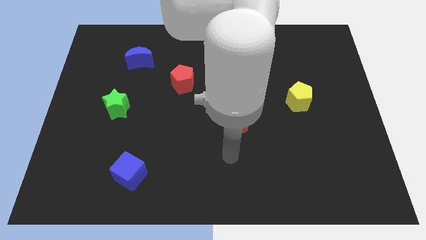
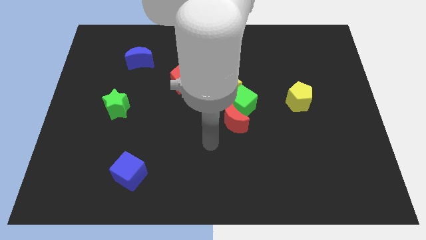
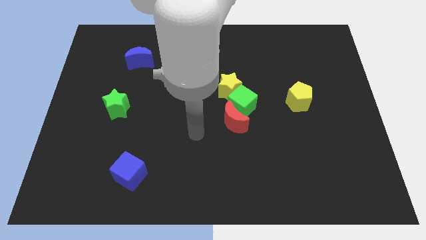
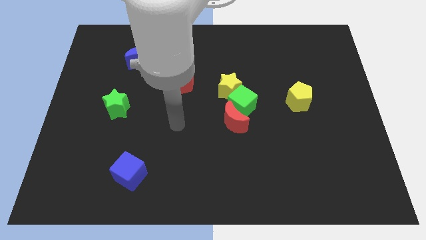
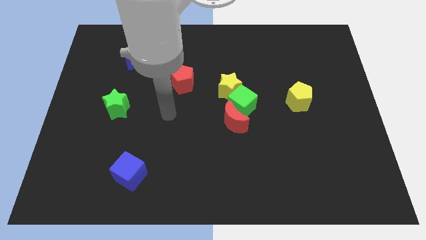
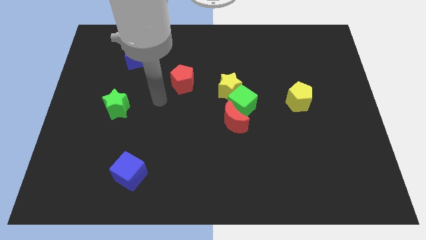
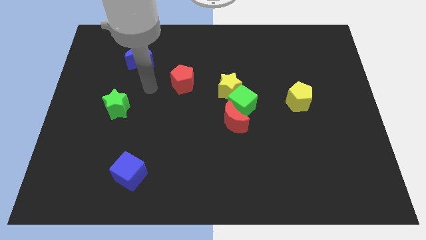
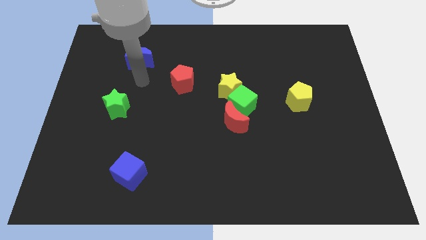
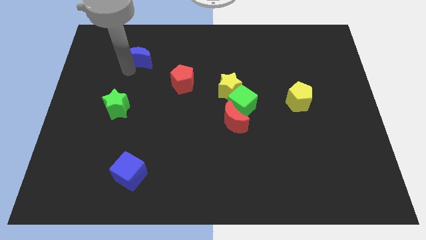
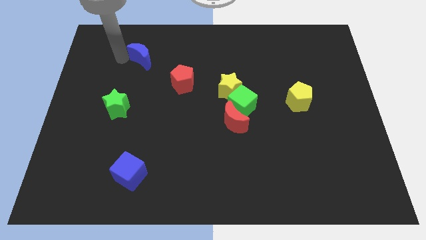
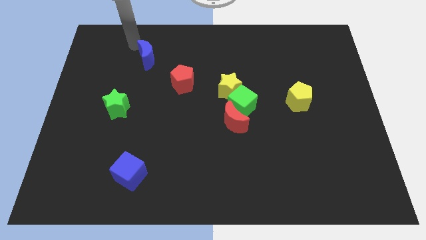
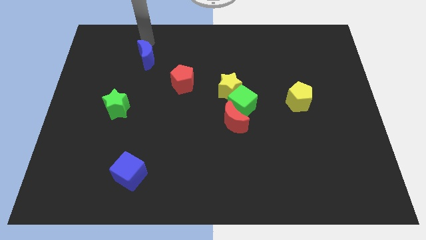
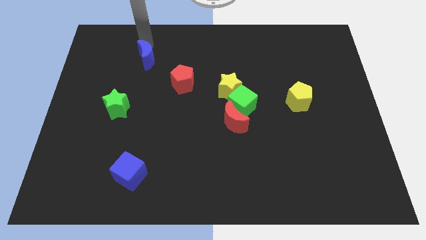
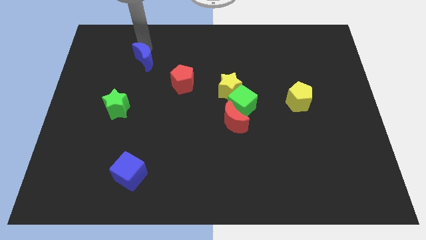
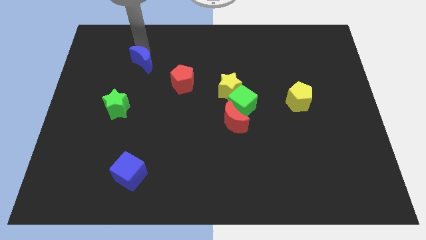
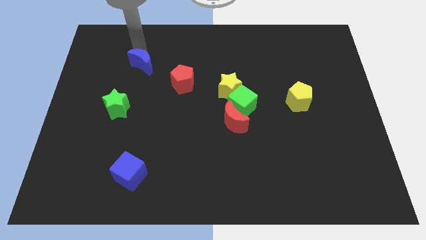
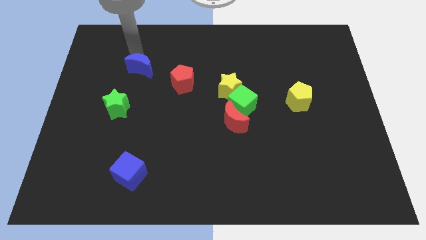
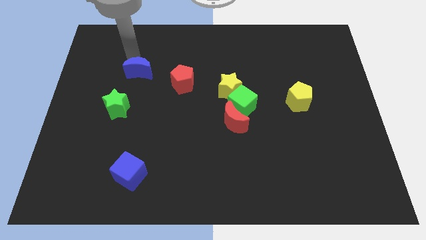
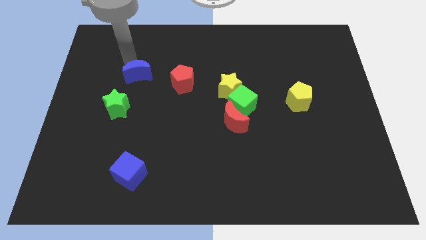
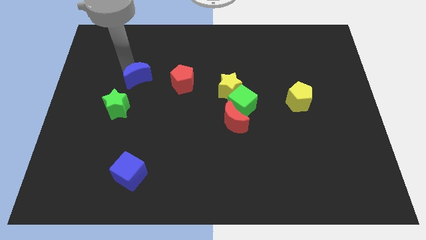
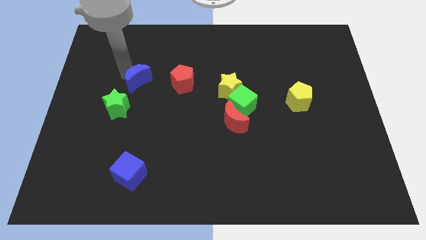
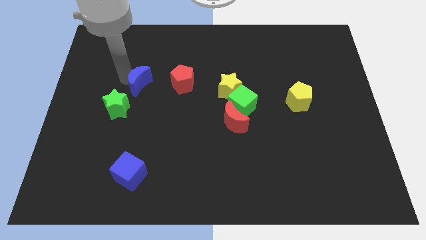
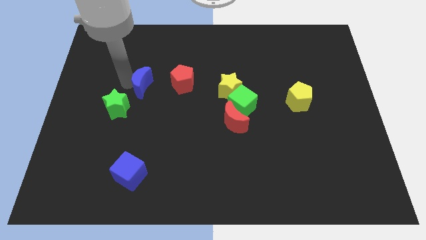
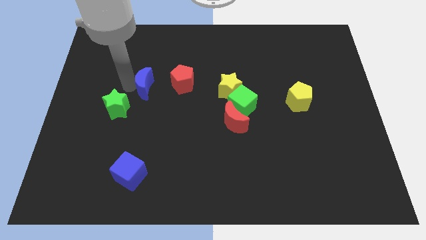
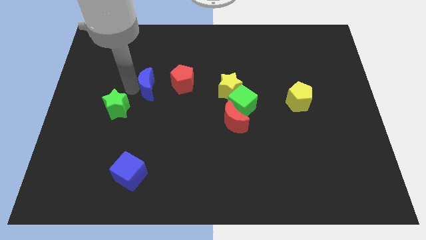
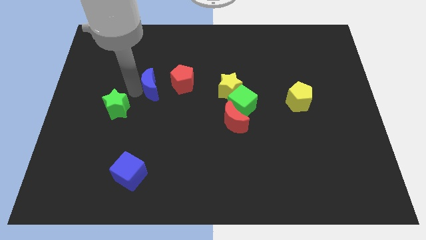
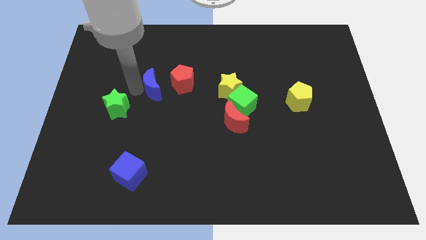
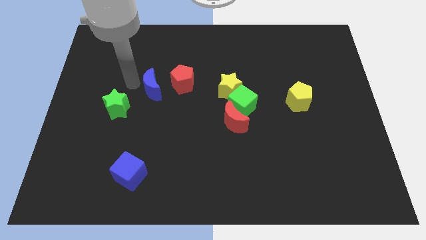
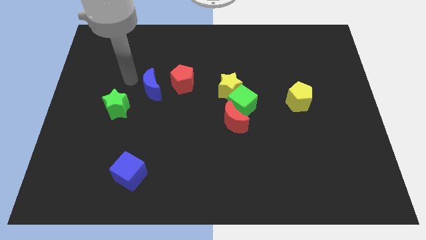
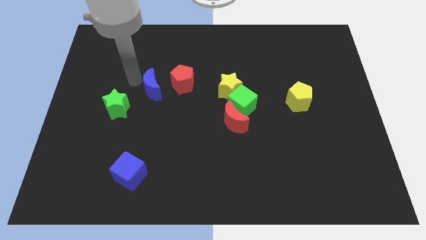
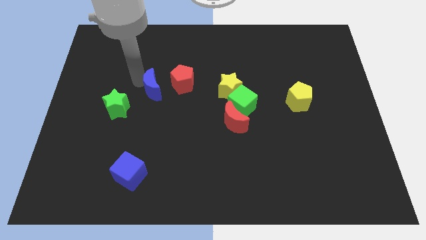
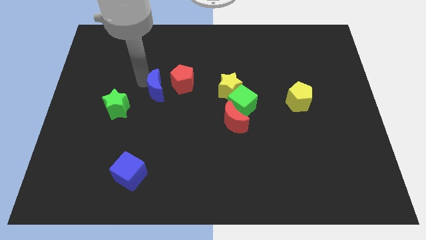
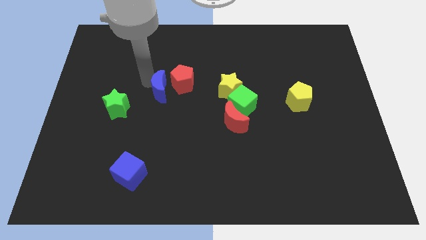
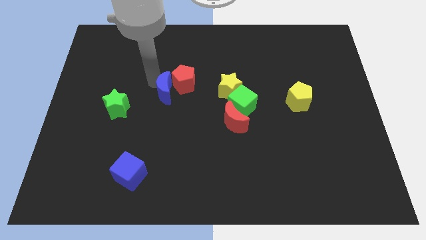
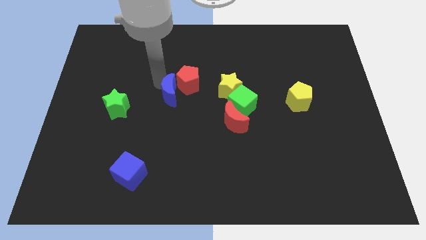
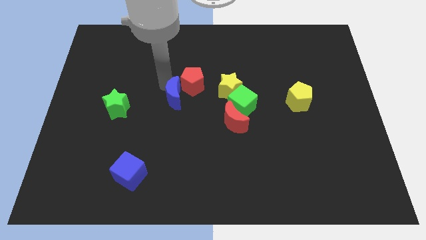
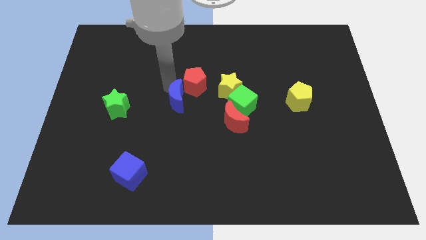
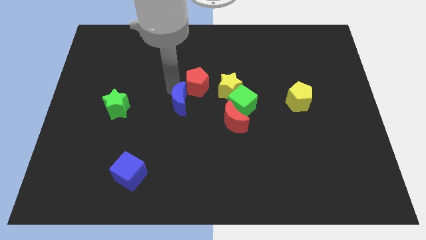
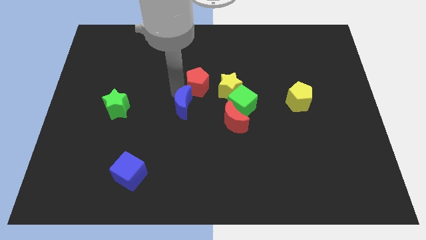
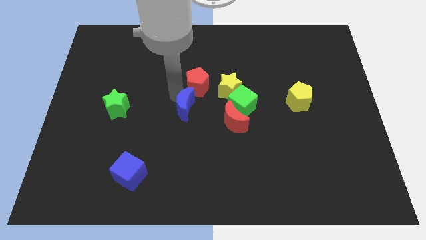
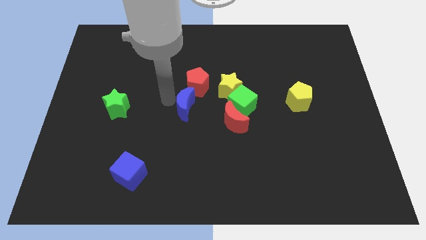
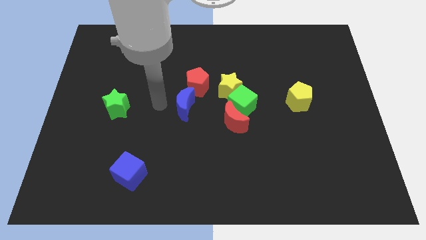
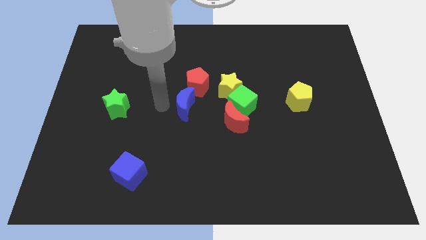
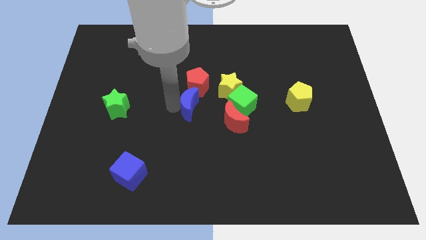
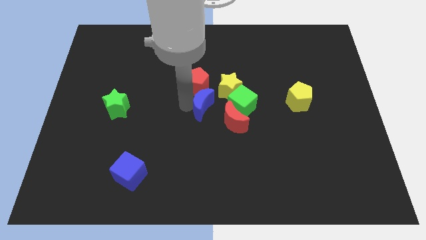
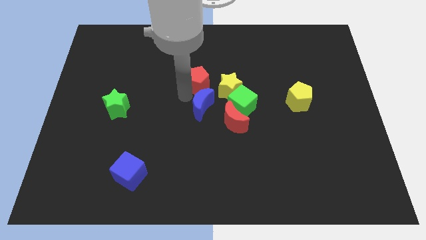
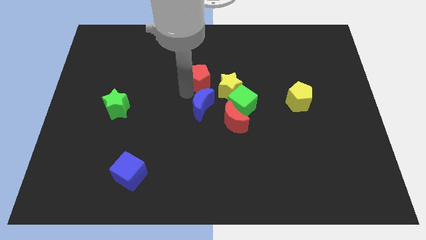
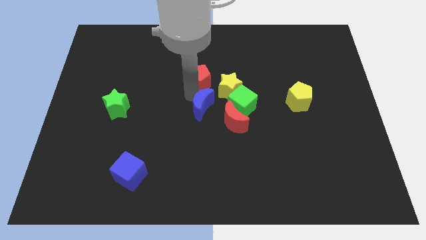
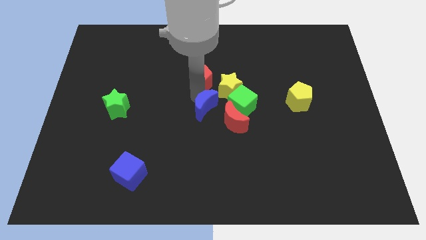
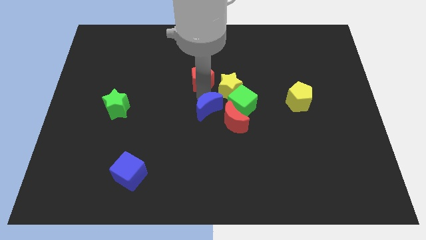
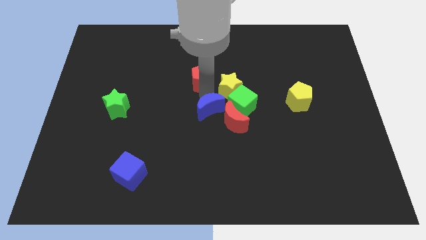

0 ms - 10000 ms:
push the blue moon diagonally down and to the left of the green cube

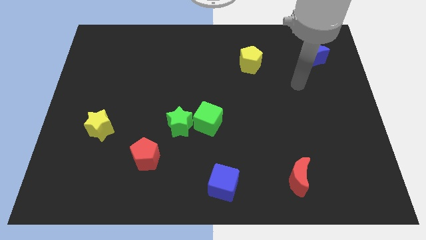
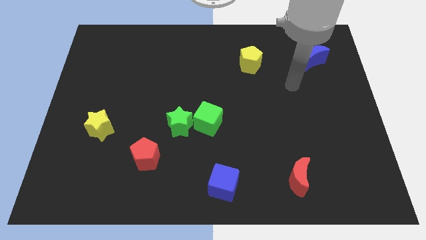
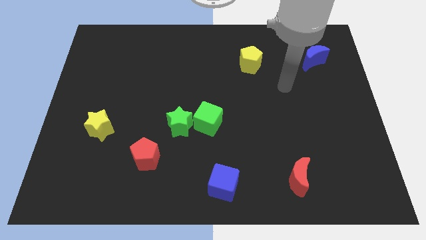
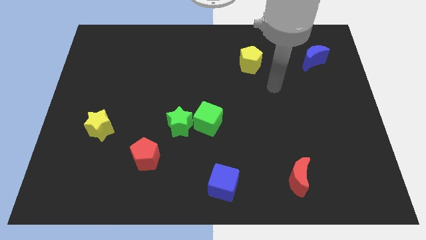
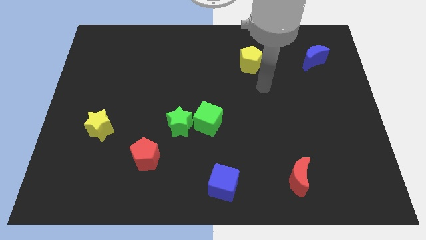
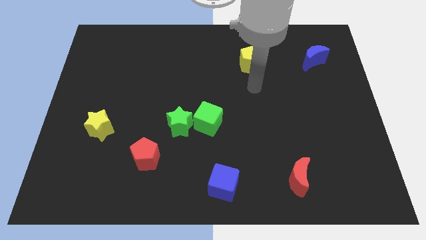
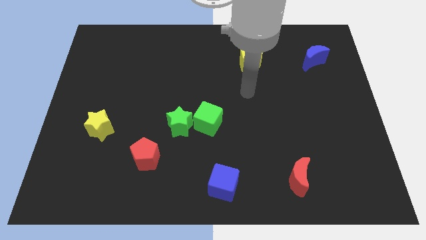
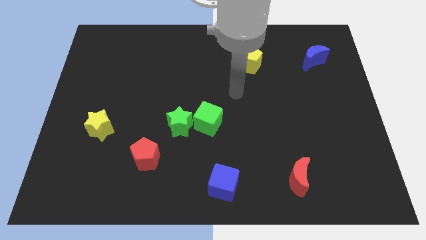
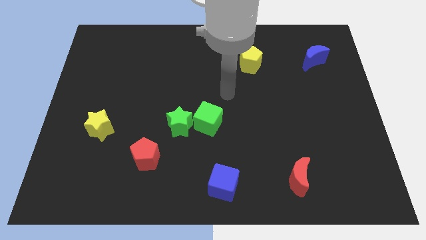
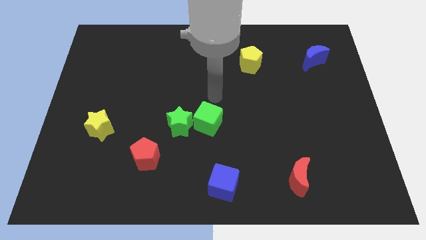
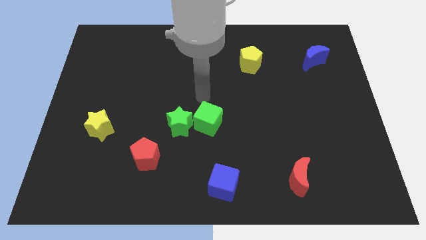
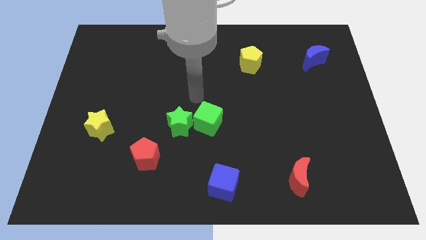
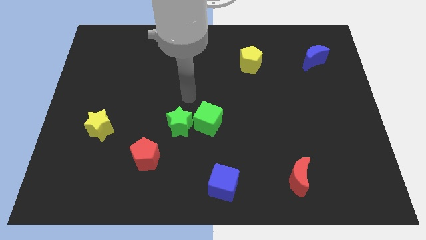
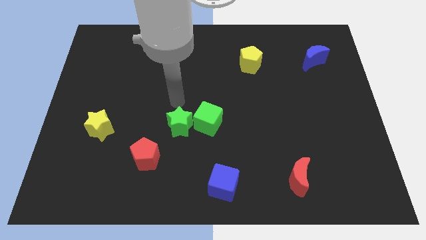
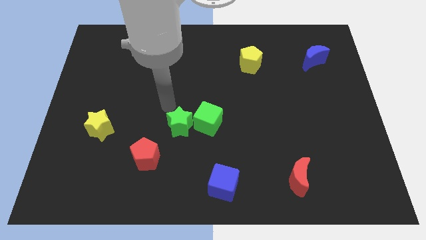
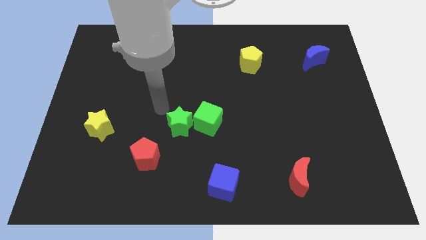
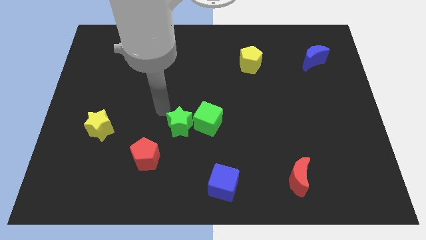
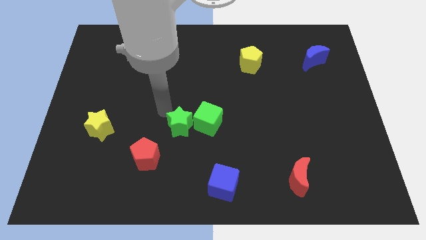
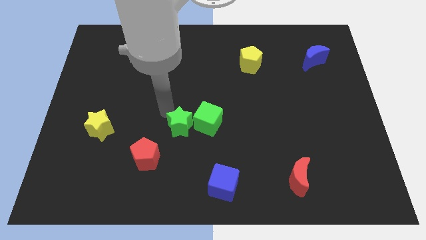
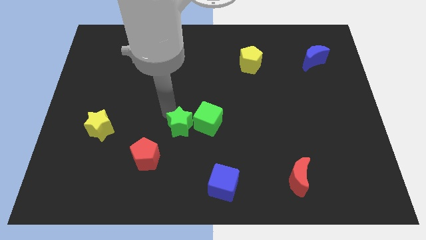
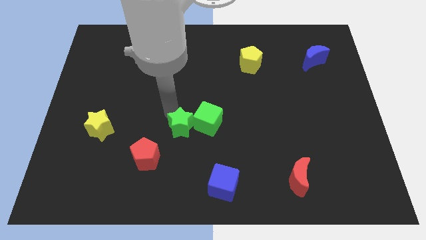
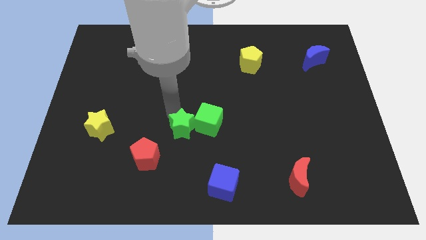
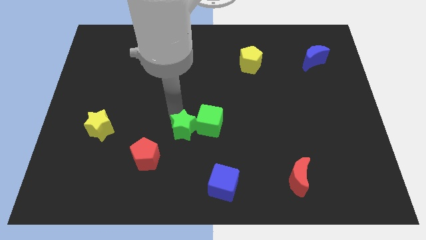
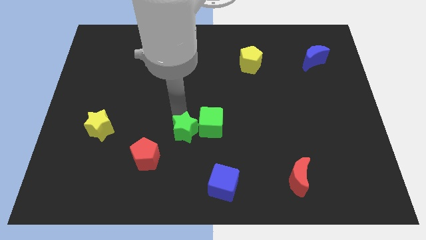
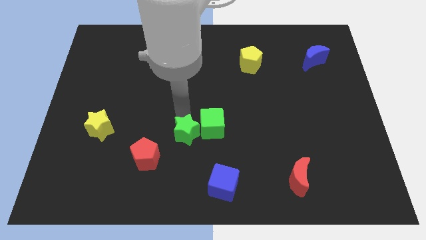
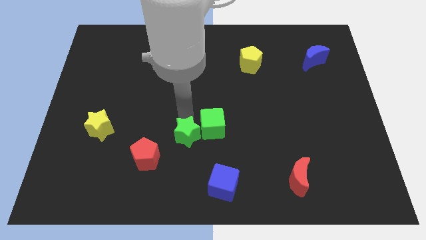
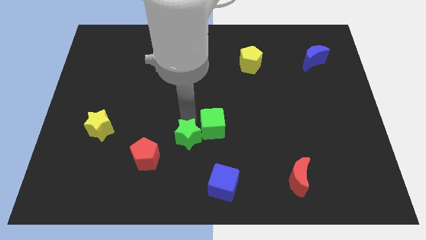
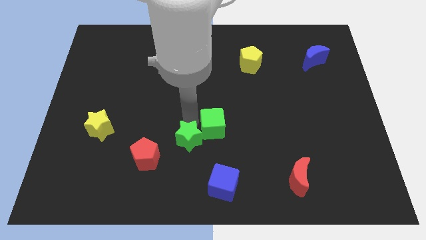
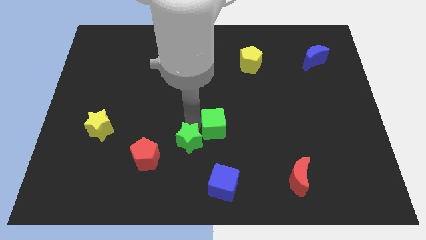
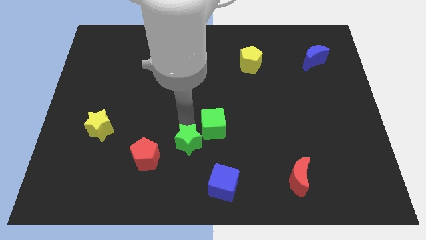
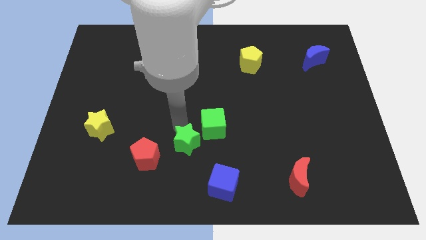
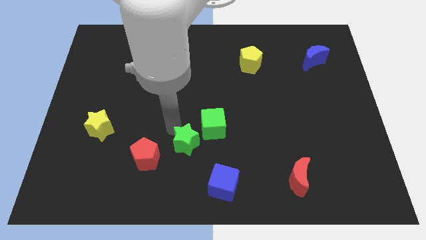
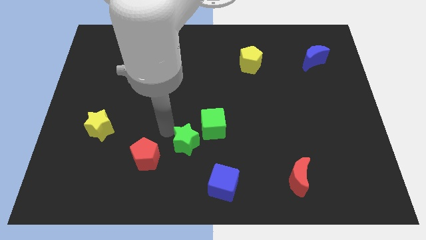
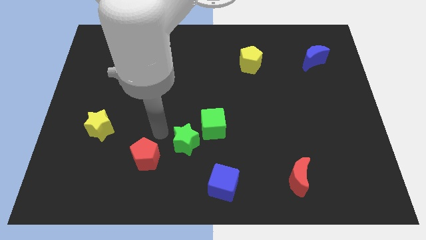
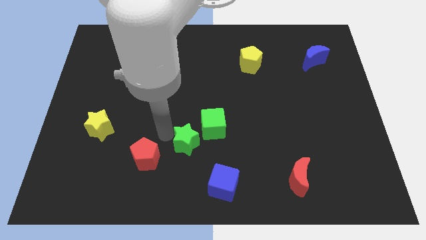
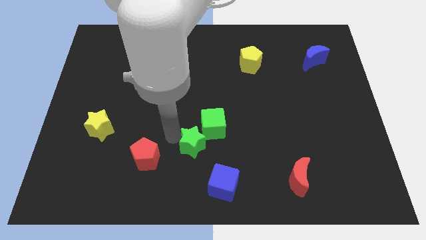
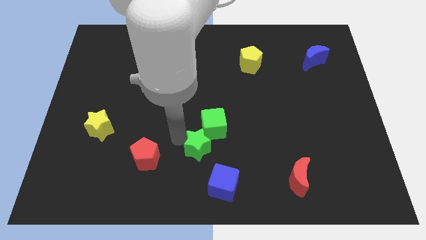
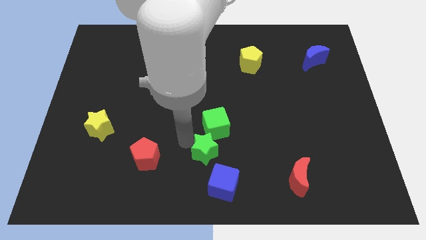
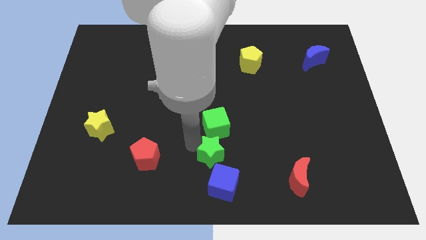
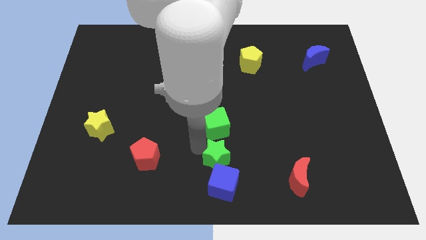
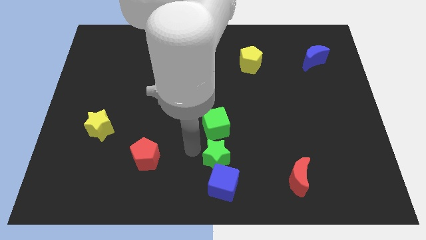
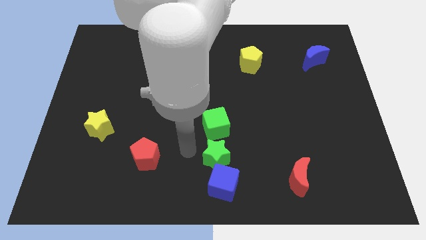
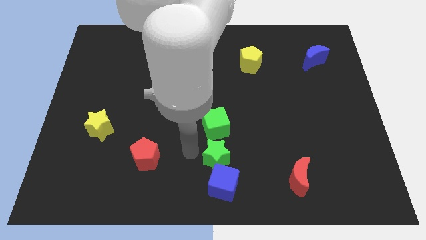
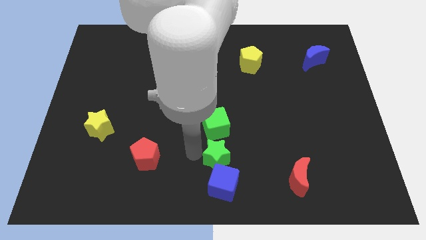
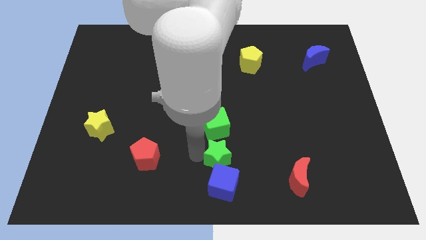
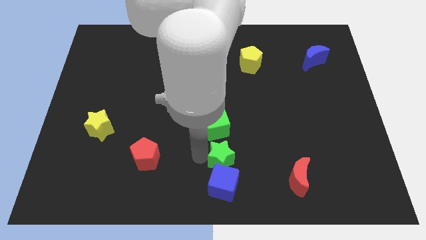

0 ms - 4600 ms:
move the green star to the top right side of the blue cube
